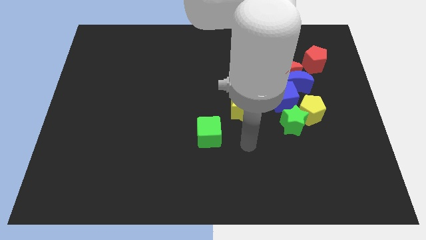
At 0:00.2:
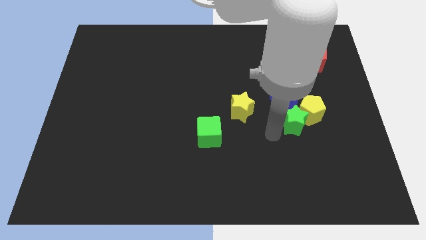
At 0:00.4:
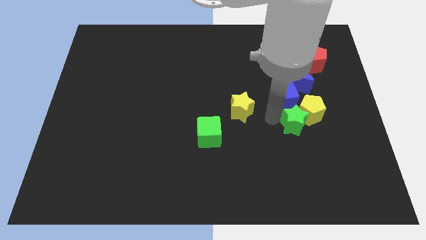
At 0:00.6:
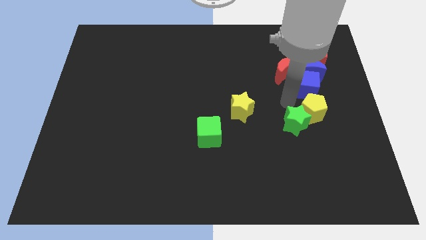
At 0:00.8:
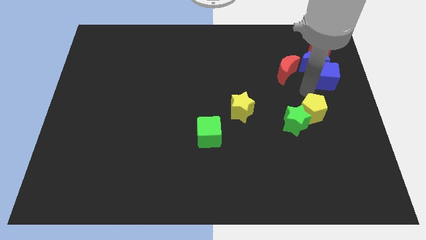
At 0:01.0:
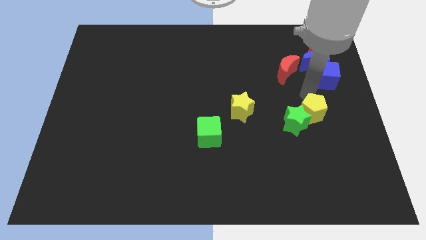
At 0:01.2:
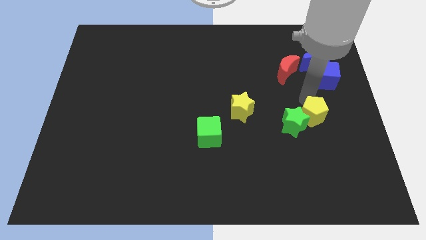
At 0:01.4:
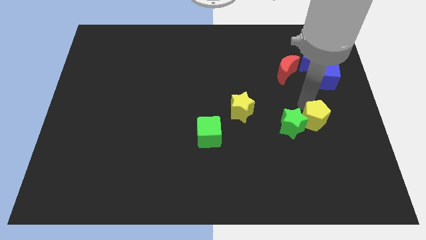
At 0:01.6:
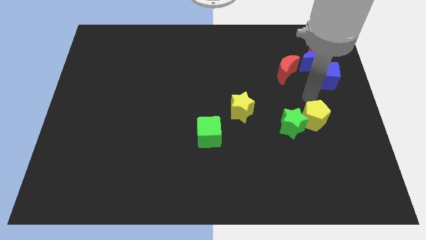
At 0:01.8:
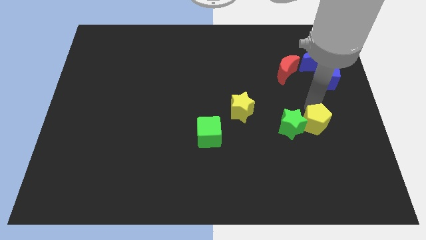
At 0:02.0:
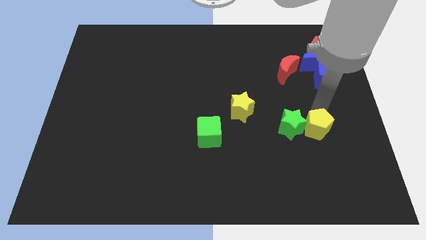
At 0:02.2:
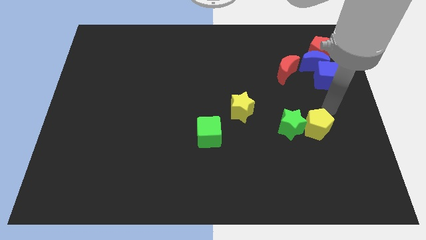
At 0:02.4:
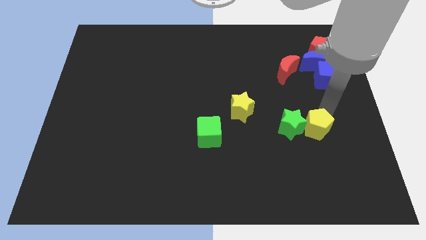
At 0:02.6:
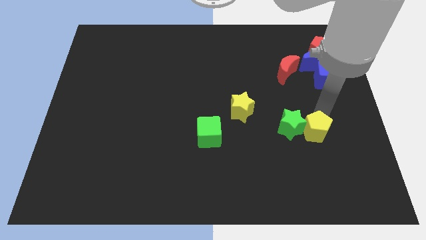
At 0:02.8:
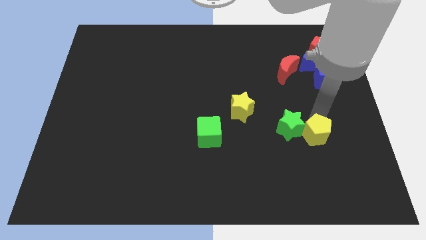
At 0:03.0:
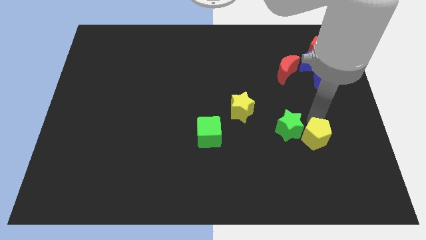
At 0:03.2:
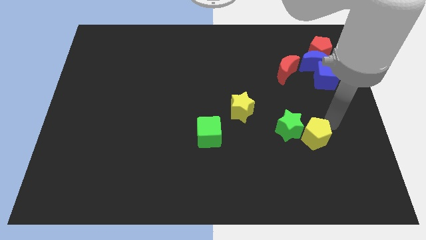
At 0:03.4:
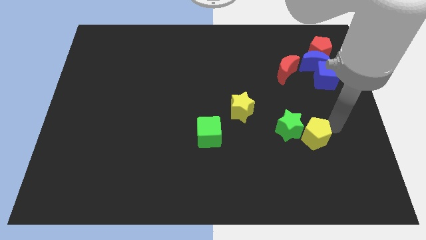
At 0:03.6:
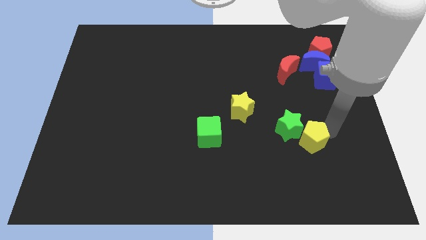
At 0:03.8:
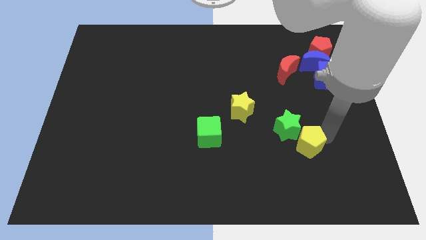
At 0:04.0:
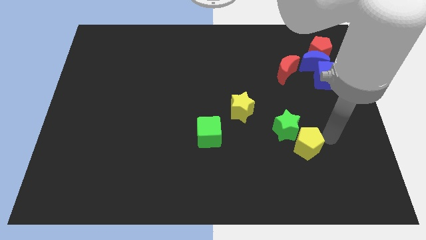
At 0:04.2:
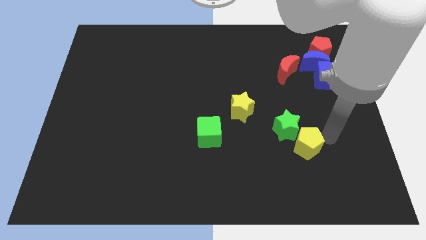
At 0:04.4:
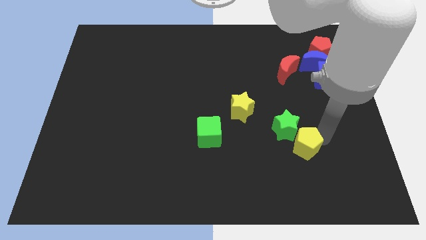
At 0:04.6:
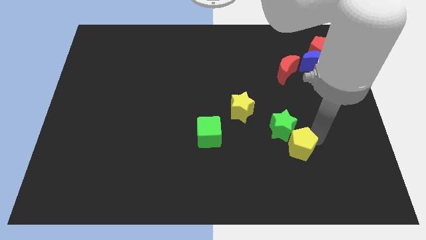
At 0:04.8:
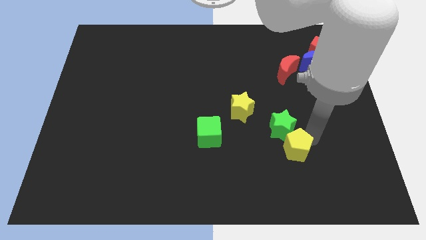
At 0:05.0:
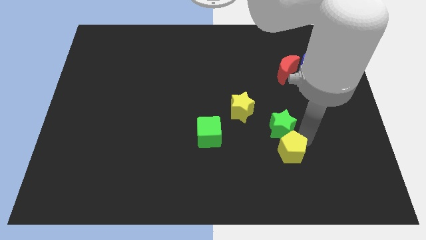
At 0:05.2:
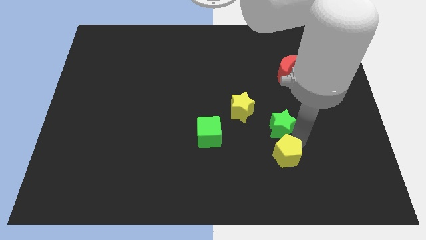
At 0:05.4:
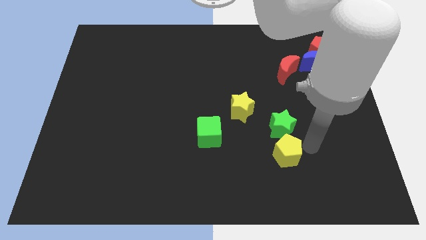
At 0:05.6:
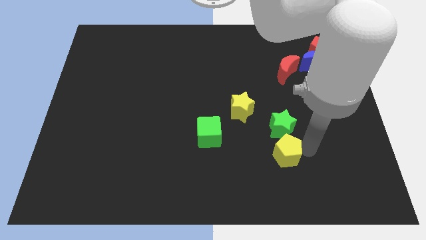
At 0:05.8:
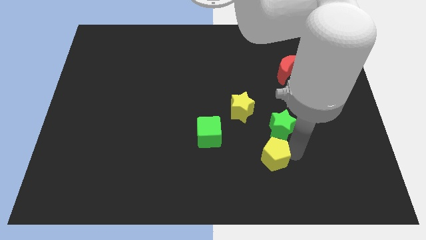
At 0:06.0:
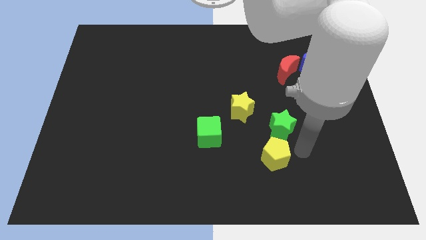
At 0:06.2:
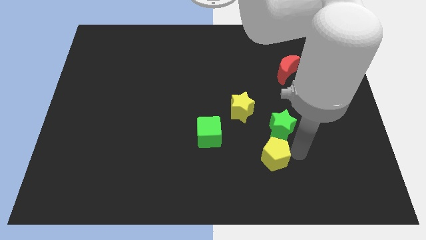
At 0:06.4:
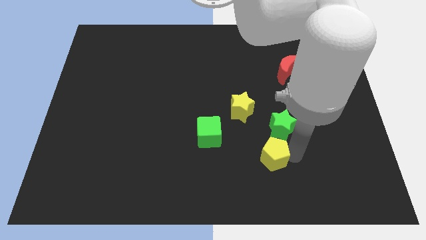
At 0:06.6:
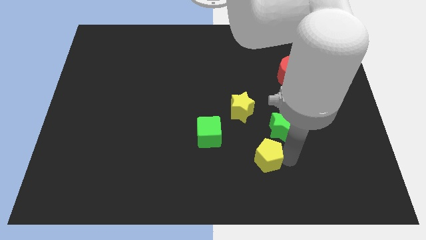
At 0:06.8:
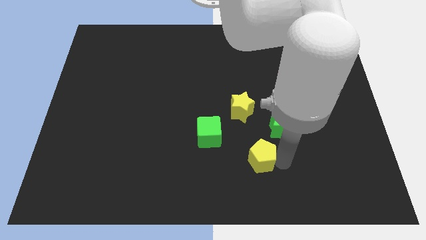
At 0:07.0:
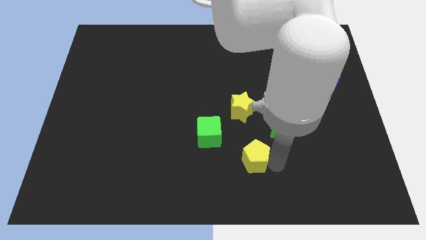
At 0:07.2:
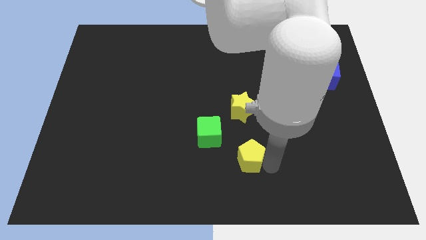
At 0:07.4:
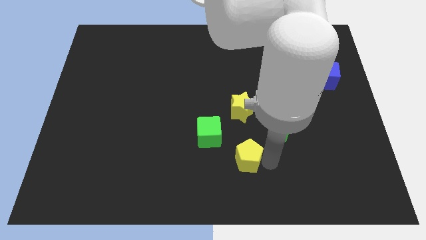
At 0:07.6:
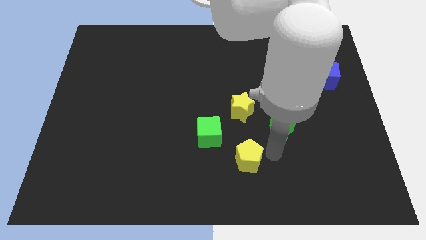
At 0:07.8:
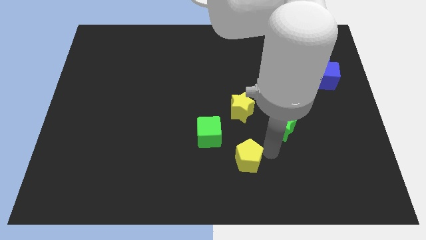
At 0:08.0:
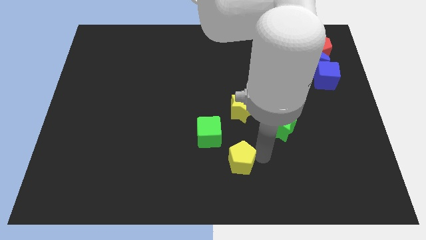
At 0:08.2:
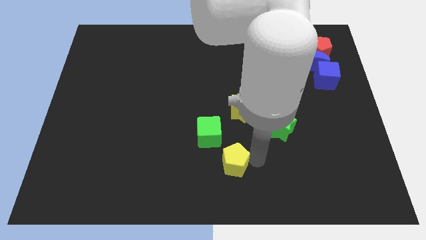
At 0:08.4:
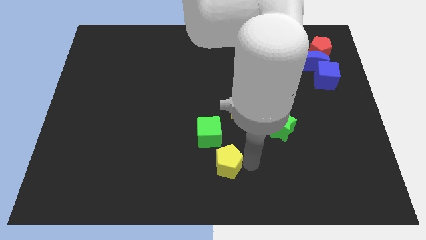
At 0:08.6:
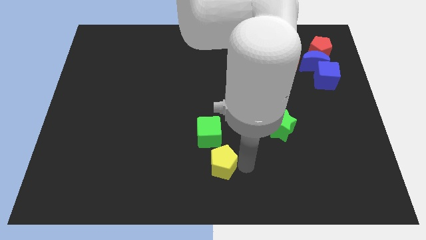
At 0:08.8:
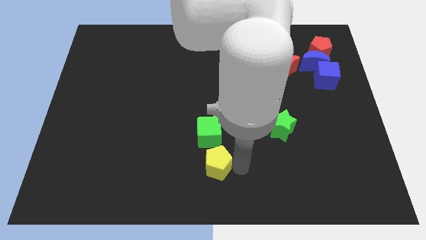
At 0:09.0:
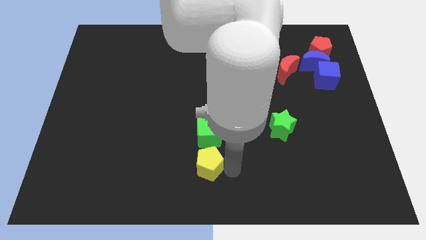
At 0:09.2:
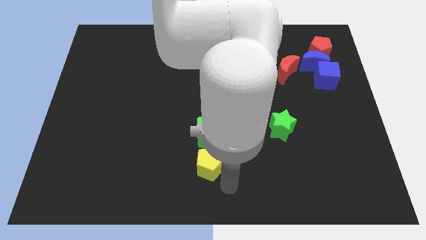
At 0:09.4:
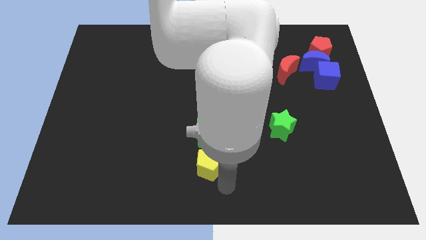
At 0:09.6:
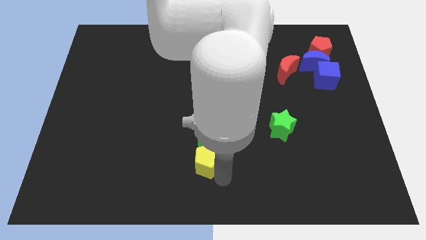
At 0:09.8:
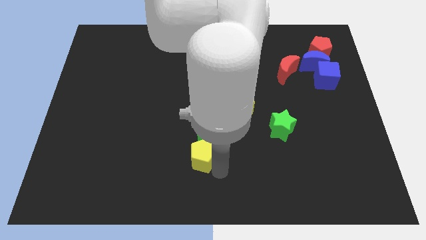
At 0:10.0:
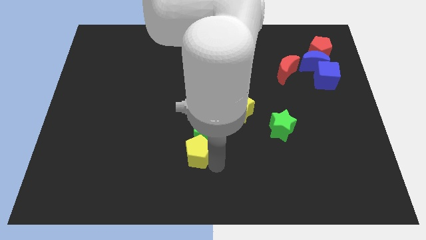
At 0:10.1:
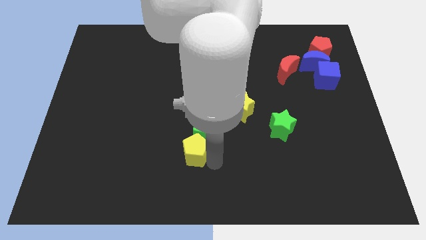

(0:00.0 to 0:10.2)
move the yellow pentagon to the left

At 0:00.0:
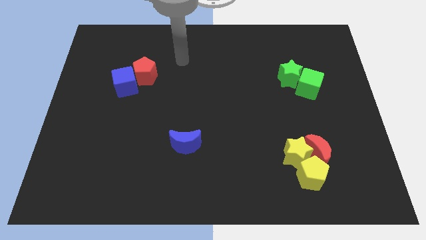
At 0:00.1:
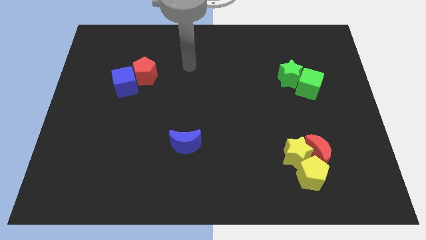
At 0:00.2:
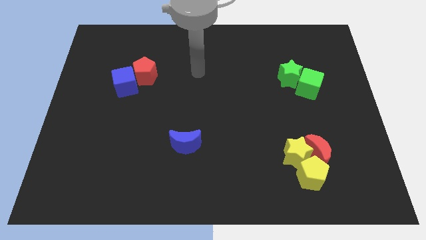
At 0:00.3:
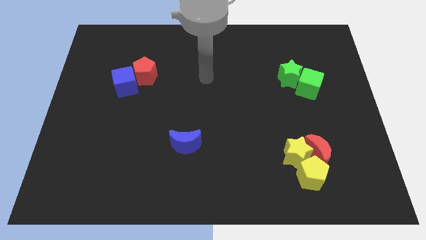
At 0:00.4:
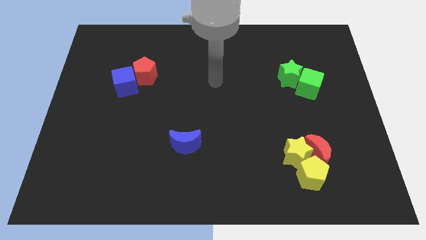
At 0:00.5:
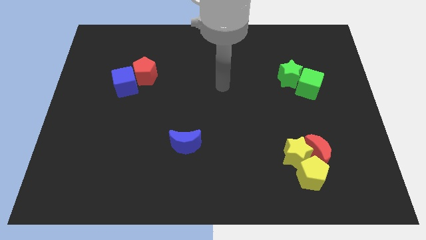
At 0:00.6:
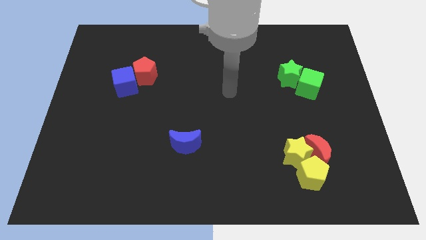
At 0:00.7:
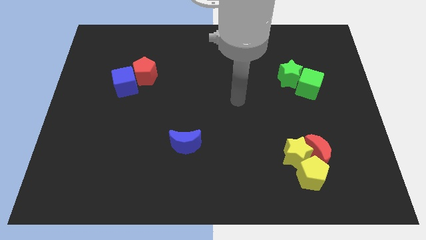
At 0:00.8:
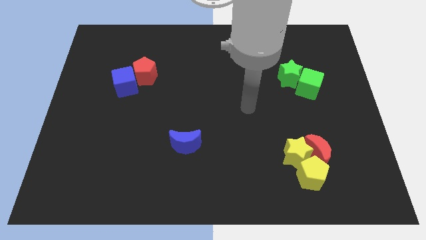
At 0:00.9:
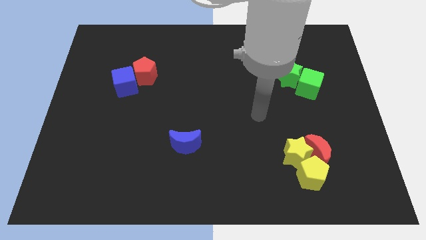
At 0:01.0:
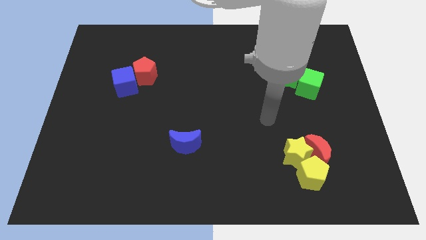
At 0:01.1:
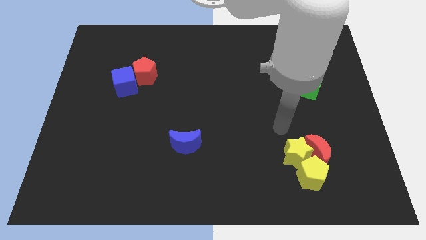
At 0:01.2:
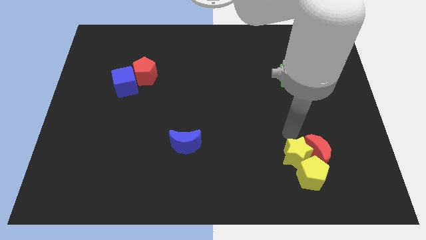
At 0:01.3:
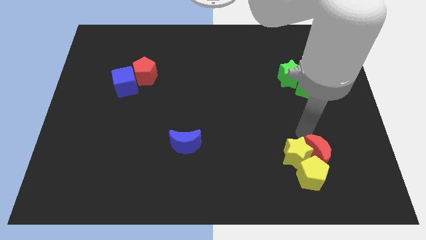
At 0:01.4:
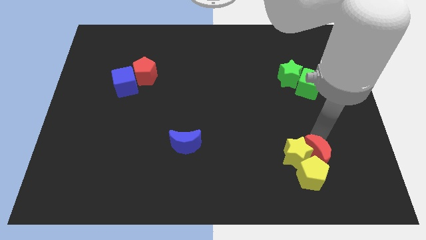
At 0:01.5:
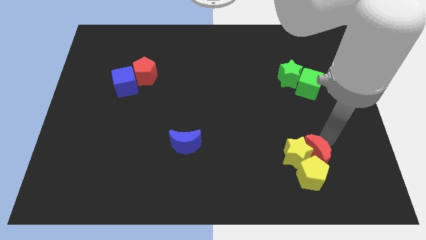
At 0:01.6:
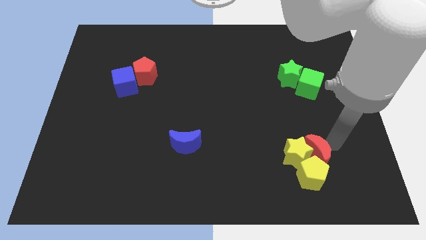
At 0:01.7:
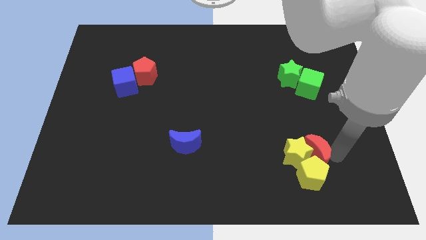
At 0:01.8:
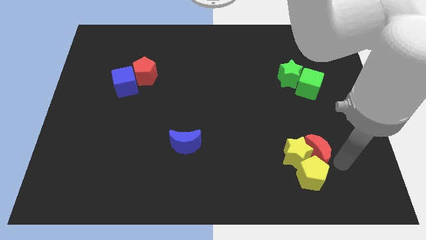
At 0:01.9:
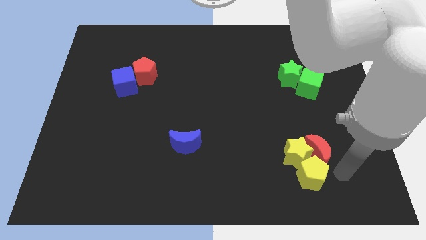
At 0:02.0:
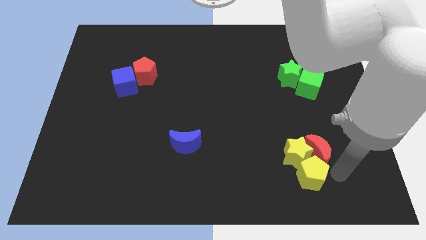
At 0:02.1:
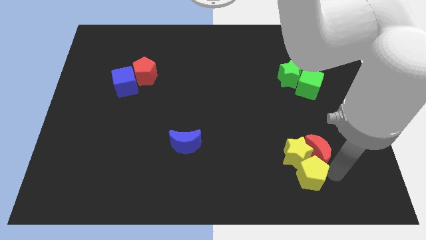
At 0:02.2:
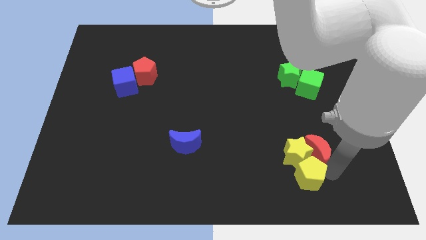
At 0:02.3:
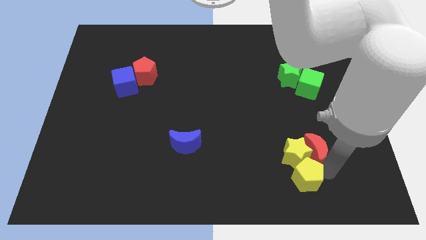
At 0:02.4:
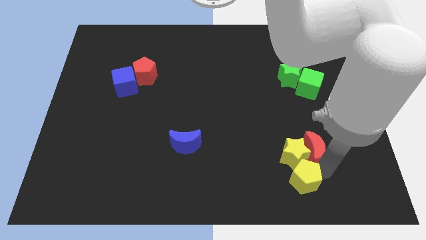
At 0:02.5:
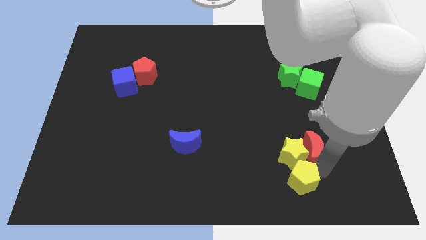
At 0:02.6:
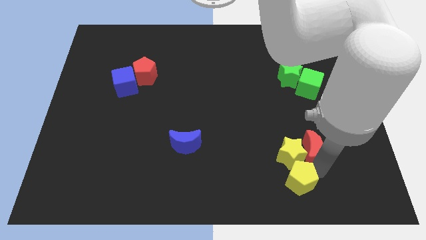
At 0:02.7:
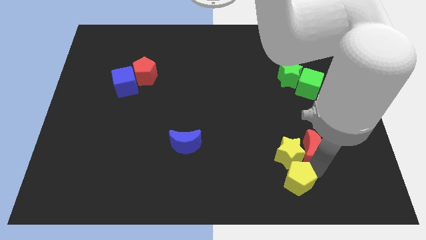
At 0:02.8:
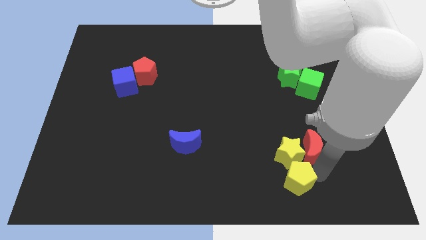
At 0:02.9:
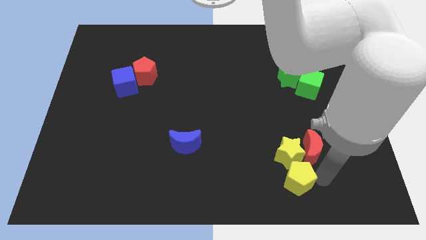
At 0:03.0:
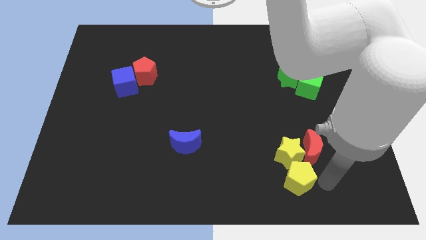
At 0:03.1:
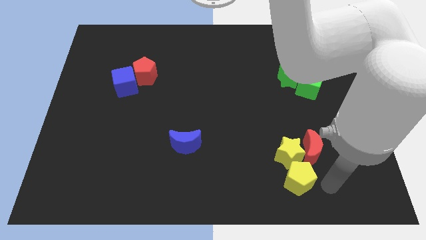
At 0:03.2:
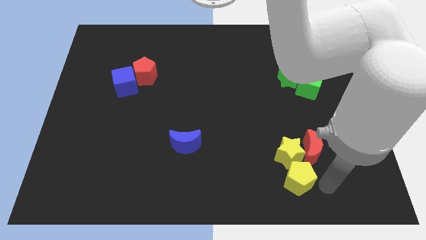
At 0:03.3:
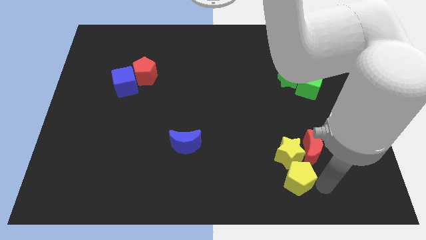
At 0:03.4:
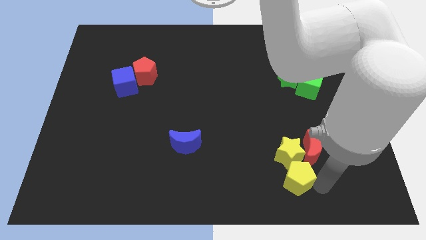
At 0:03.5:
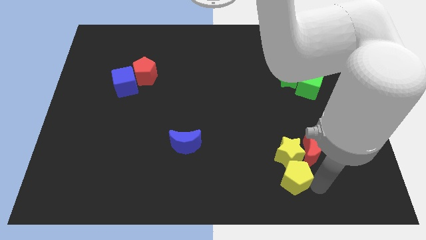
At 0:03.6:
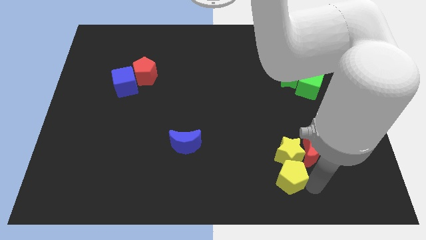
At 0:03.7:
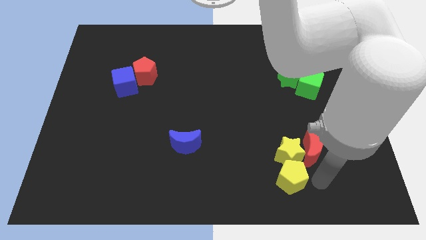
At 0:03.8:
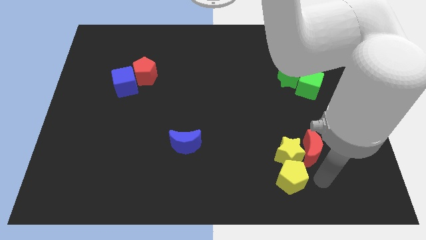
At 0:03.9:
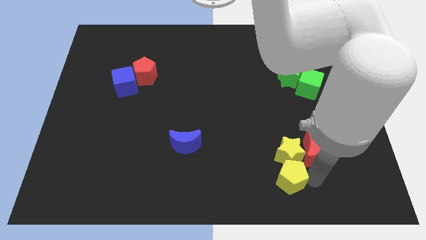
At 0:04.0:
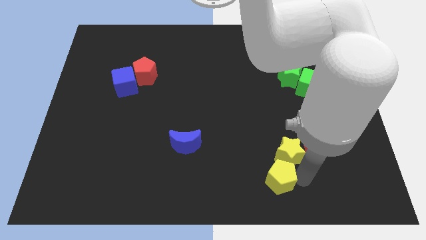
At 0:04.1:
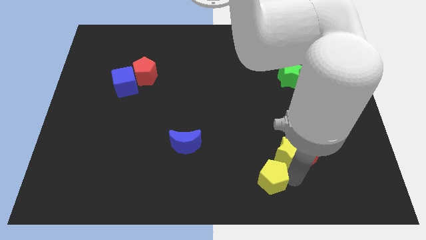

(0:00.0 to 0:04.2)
push the yellow pentagon a little to the left
